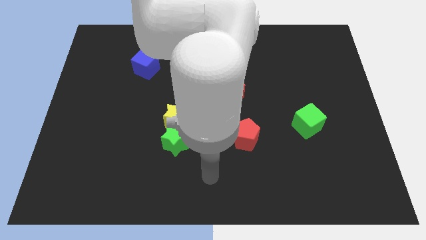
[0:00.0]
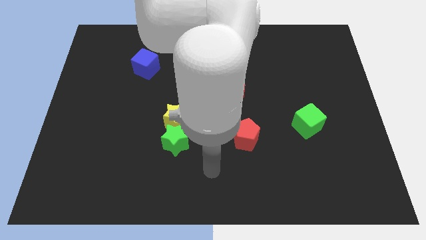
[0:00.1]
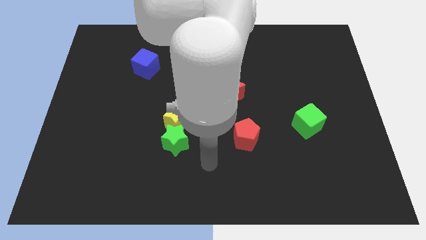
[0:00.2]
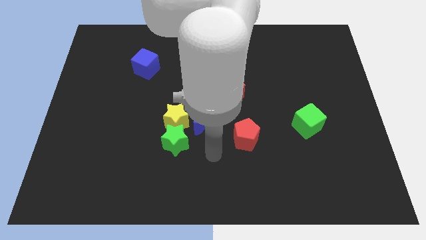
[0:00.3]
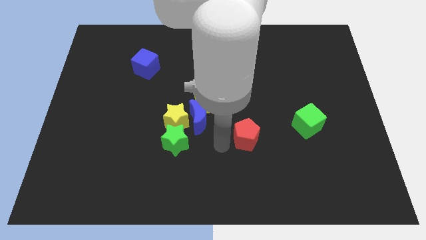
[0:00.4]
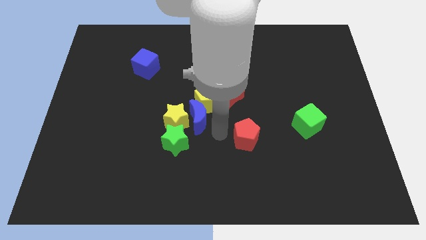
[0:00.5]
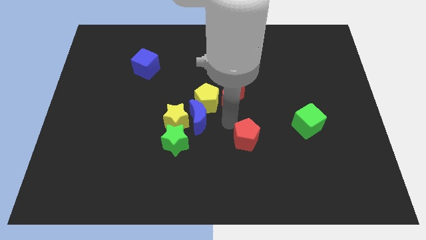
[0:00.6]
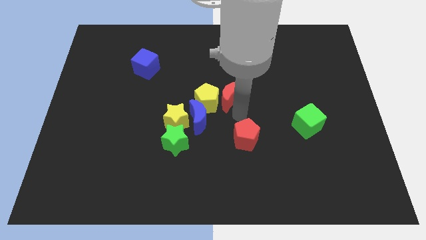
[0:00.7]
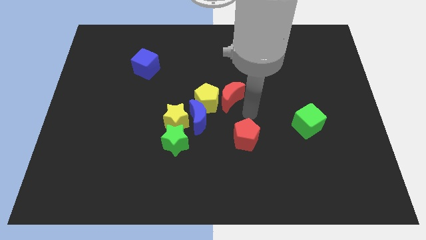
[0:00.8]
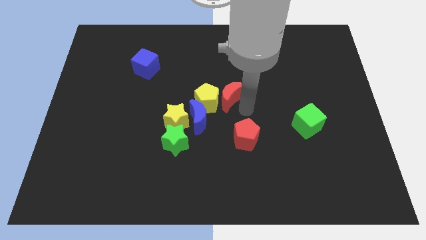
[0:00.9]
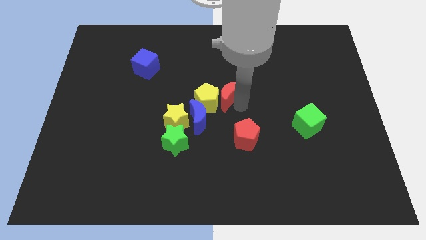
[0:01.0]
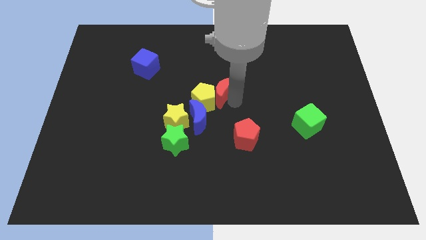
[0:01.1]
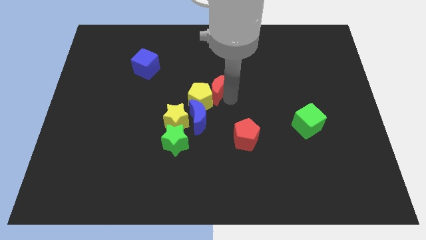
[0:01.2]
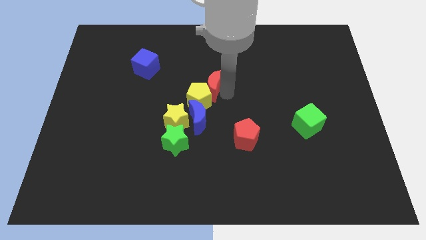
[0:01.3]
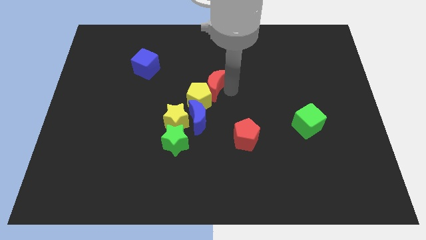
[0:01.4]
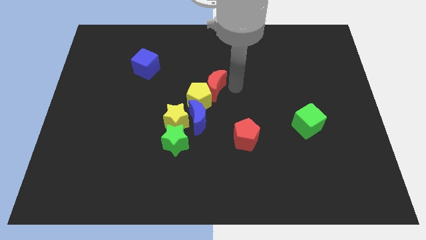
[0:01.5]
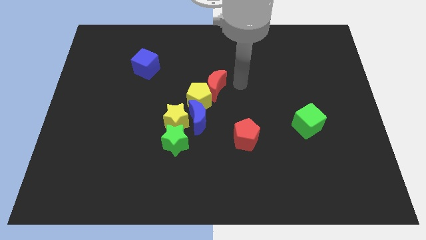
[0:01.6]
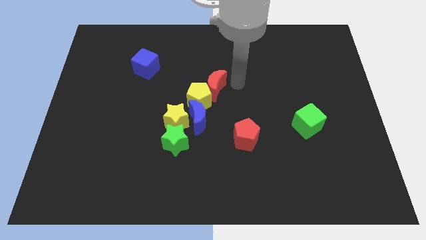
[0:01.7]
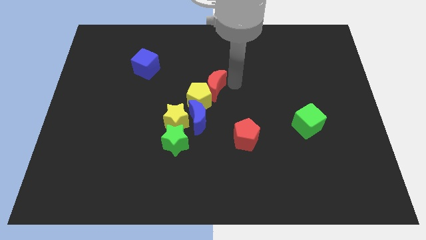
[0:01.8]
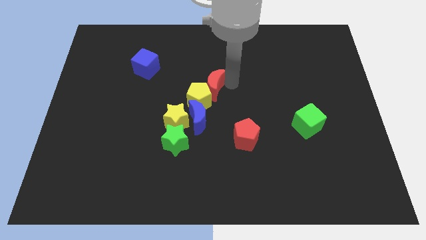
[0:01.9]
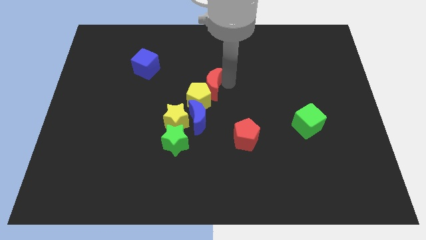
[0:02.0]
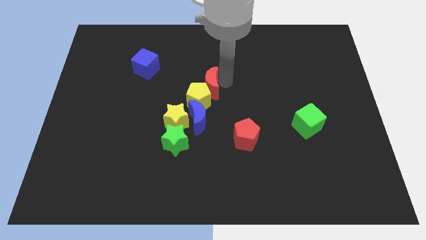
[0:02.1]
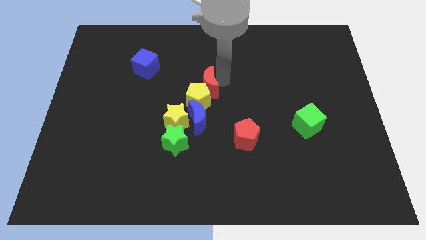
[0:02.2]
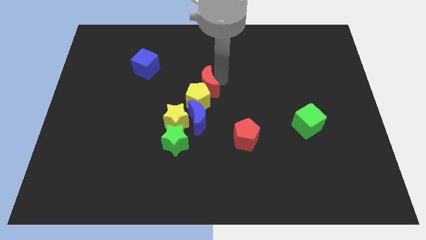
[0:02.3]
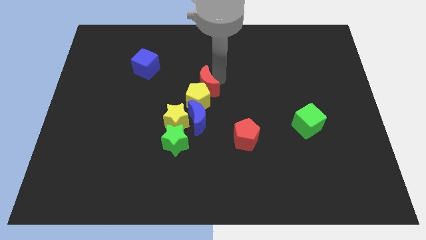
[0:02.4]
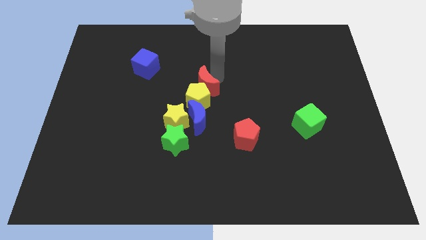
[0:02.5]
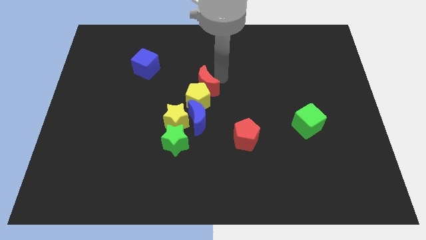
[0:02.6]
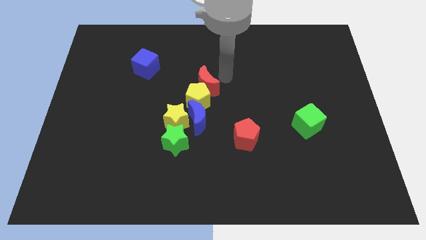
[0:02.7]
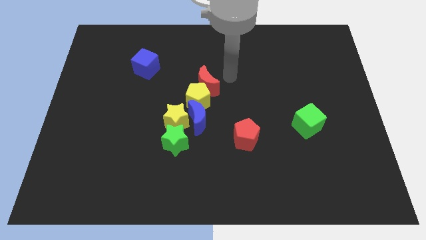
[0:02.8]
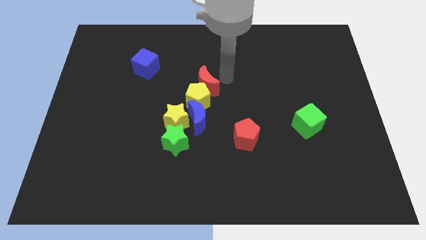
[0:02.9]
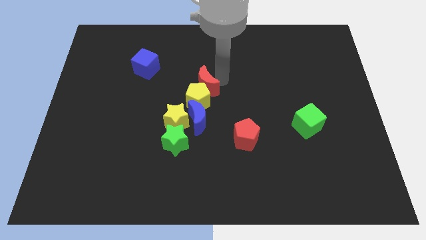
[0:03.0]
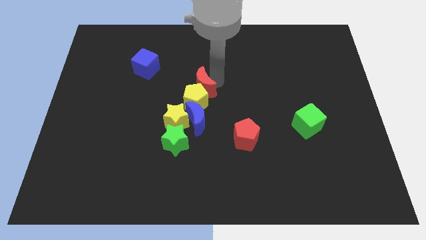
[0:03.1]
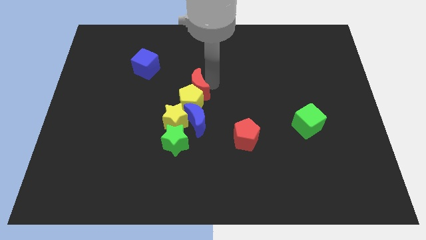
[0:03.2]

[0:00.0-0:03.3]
slightly move the red moon left

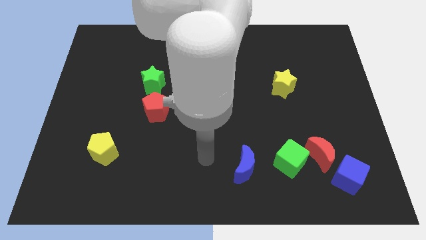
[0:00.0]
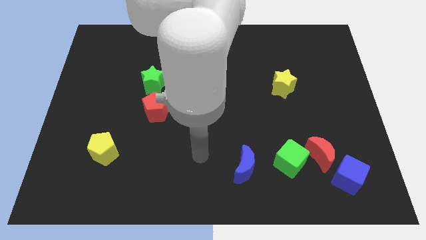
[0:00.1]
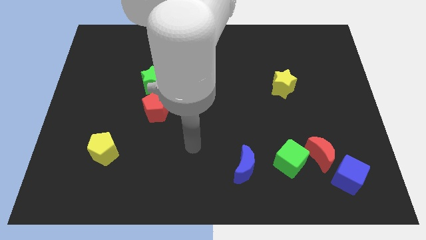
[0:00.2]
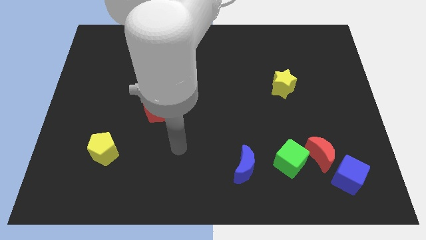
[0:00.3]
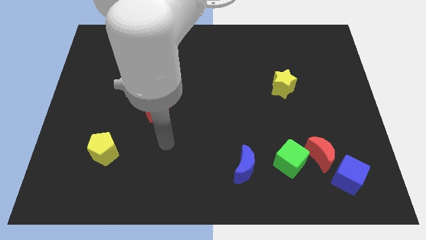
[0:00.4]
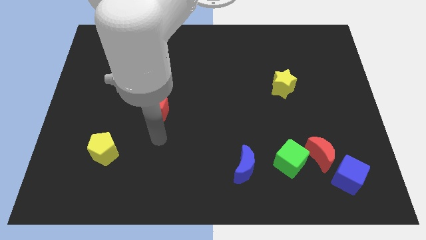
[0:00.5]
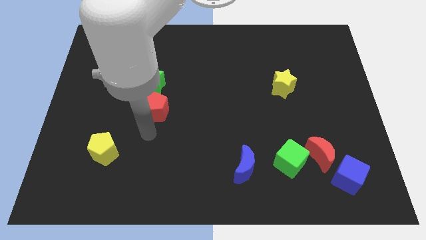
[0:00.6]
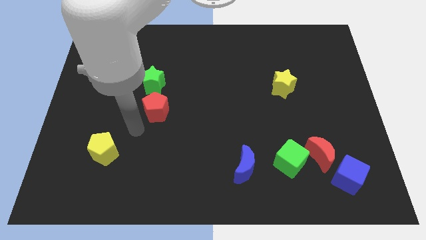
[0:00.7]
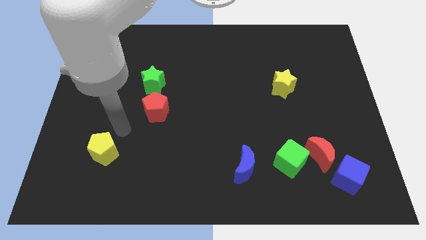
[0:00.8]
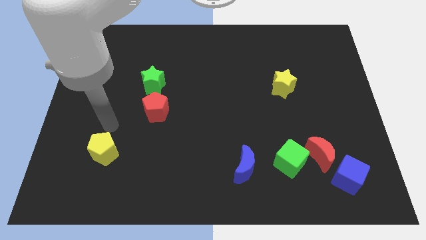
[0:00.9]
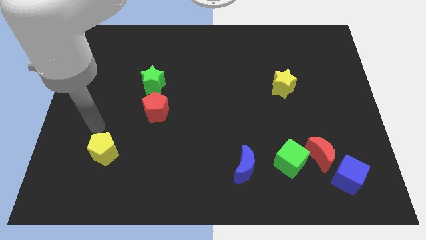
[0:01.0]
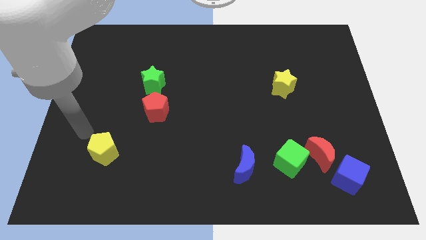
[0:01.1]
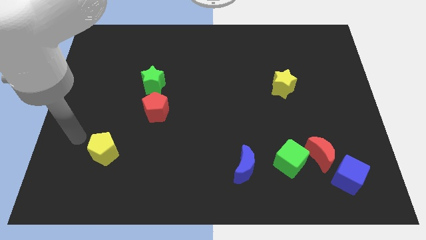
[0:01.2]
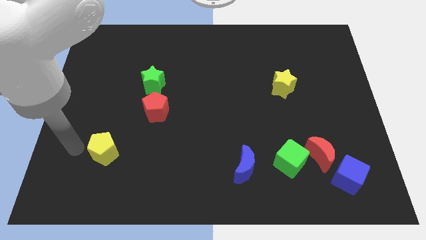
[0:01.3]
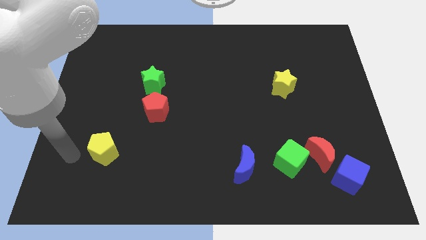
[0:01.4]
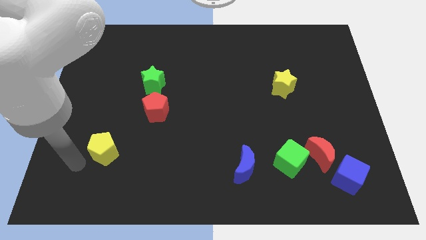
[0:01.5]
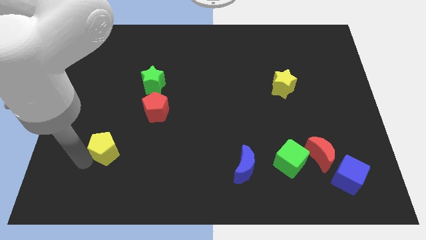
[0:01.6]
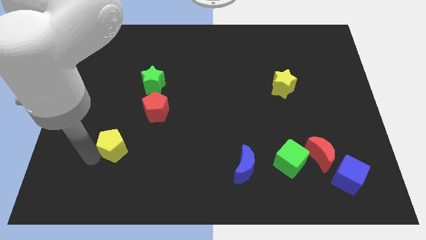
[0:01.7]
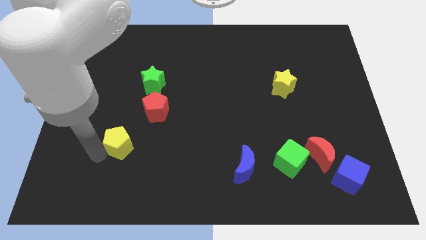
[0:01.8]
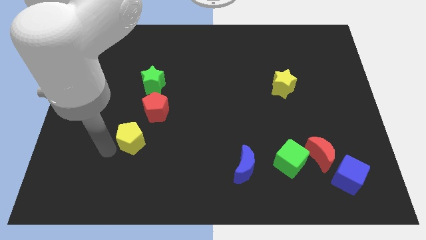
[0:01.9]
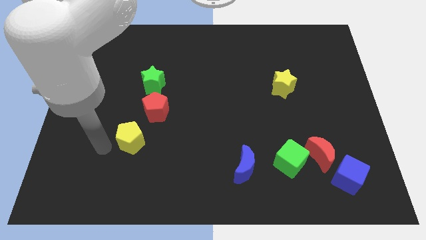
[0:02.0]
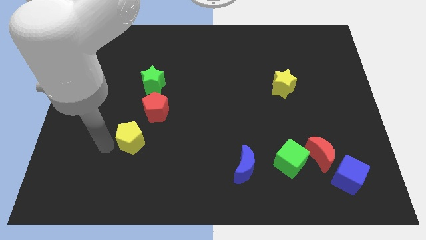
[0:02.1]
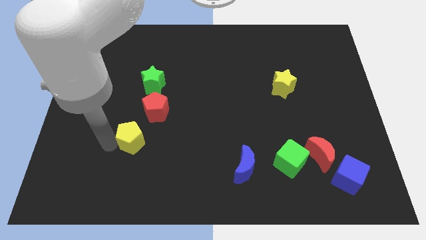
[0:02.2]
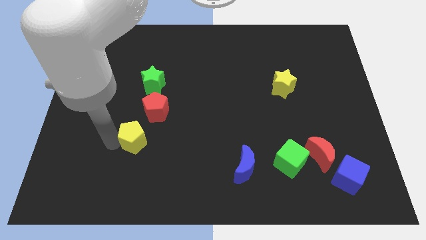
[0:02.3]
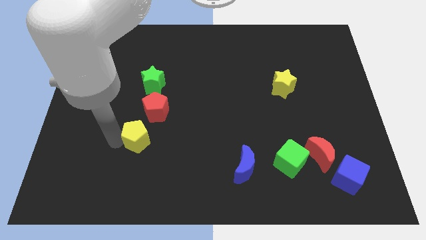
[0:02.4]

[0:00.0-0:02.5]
push the yellow pentagon a little bit up and then right

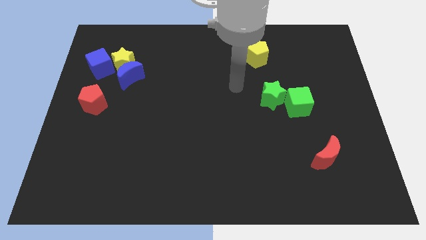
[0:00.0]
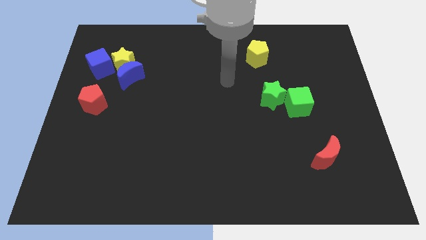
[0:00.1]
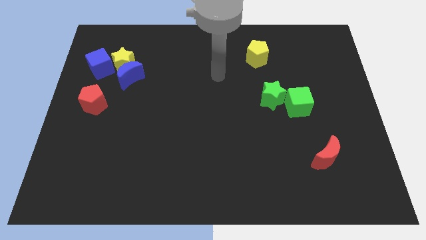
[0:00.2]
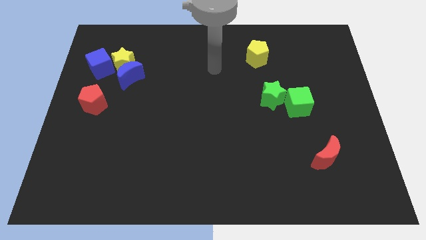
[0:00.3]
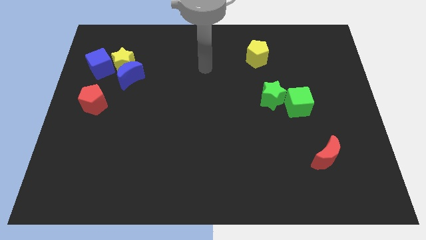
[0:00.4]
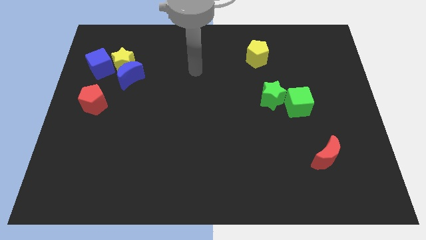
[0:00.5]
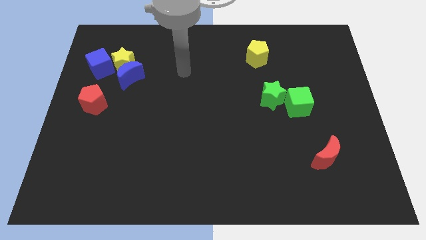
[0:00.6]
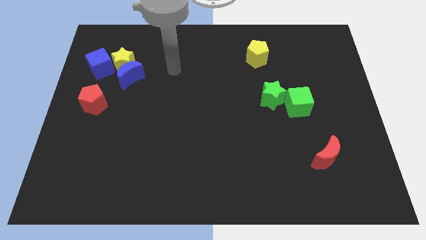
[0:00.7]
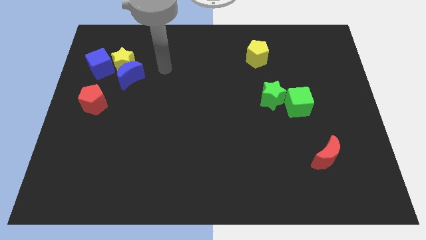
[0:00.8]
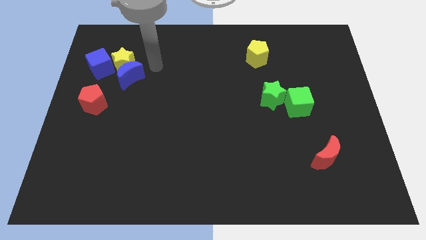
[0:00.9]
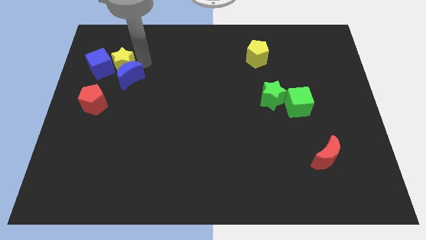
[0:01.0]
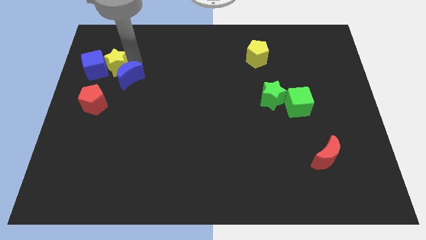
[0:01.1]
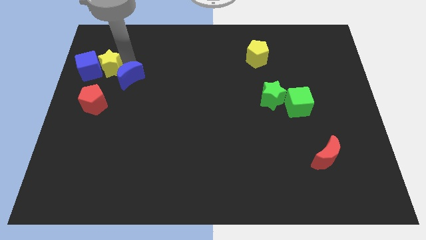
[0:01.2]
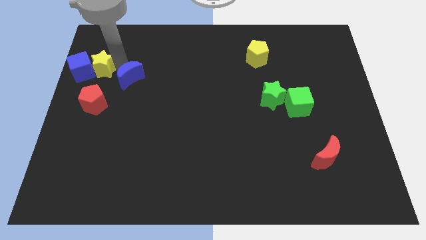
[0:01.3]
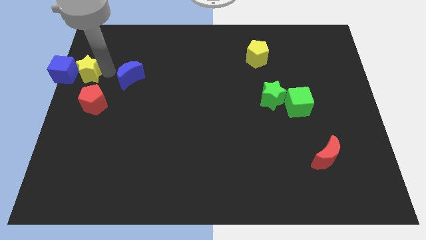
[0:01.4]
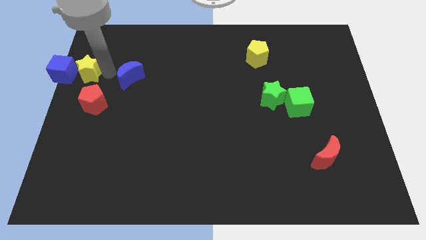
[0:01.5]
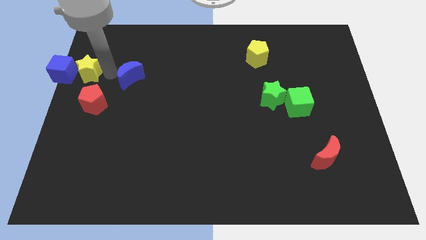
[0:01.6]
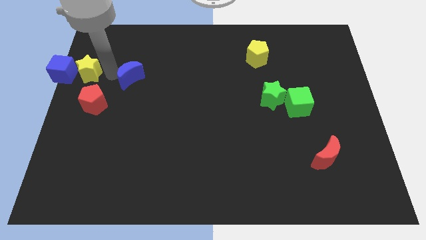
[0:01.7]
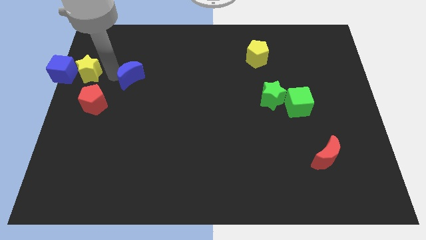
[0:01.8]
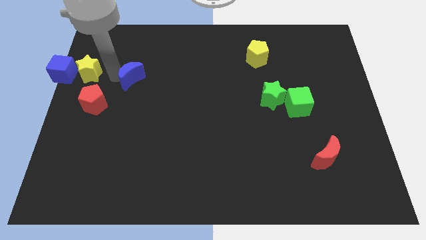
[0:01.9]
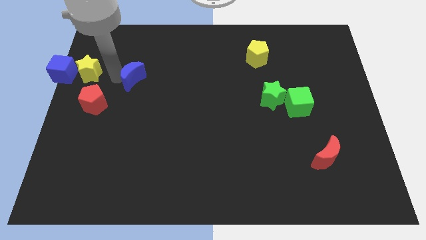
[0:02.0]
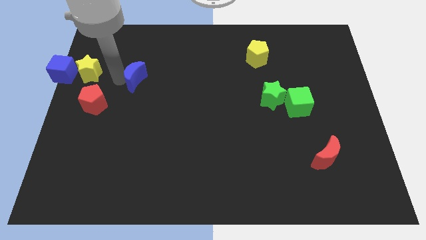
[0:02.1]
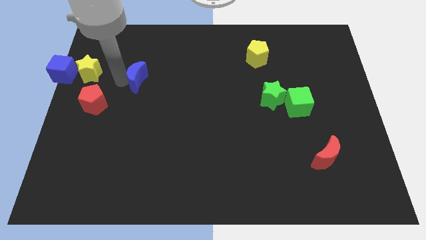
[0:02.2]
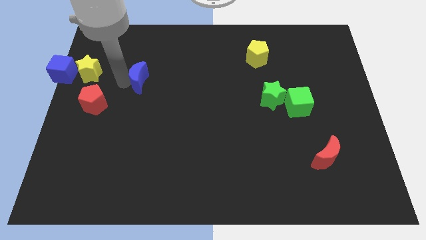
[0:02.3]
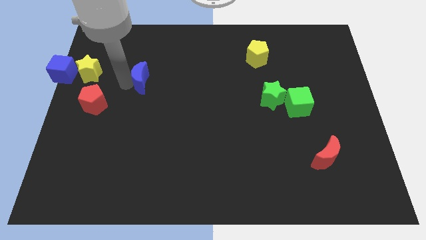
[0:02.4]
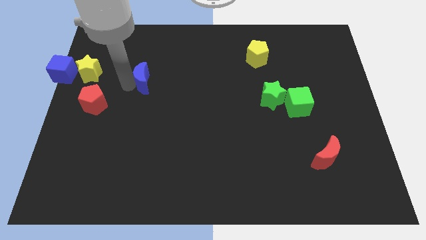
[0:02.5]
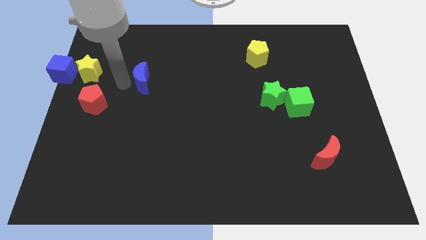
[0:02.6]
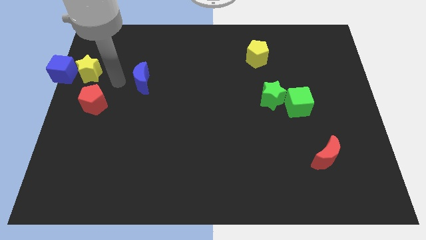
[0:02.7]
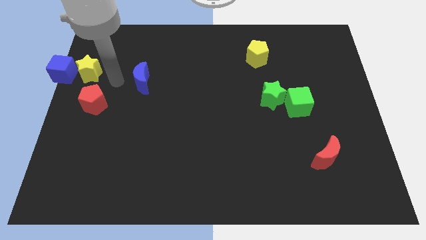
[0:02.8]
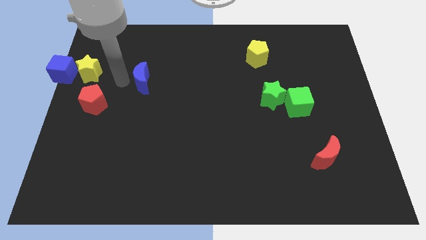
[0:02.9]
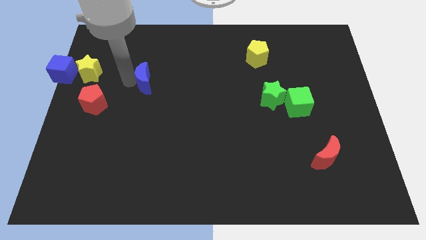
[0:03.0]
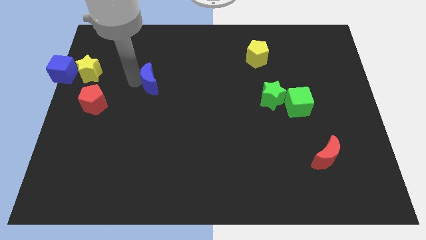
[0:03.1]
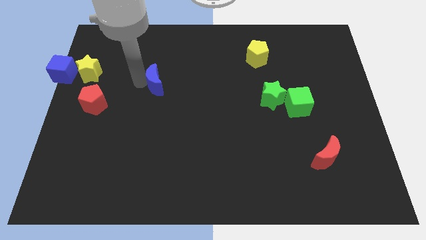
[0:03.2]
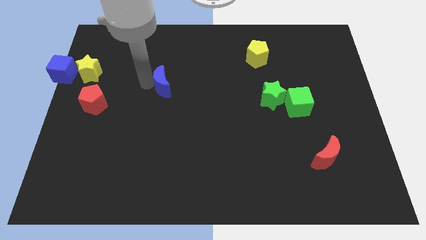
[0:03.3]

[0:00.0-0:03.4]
move the blue moon right slightly
